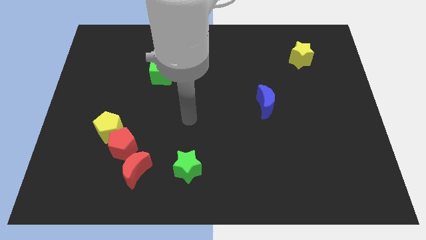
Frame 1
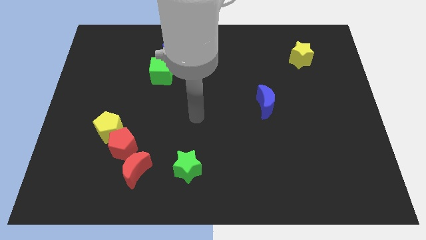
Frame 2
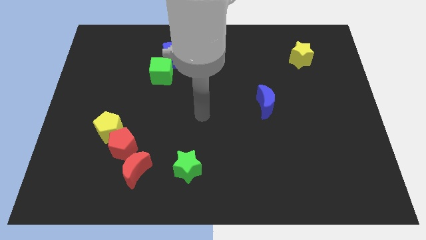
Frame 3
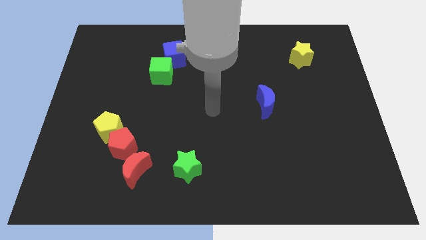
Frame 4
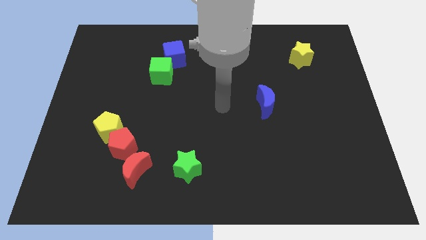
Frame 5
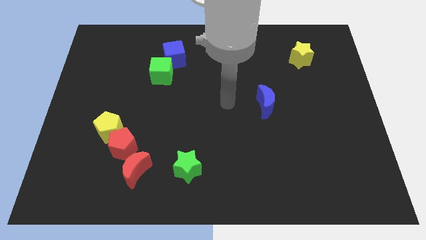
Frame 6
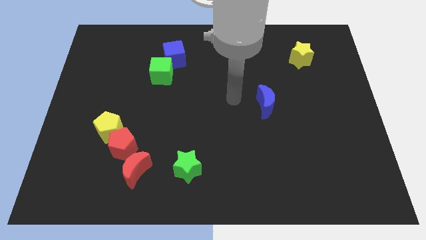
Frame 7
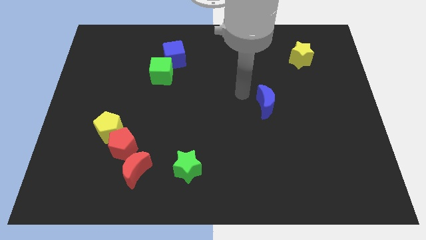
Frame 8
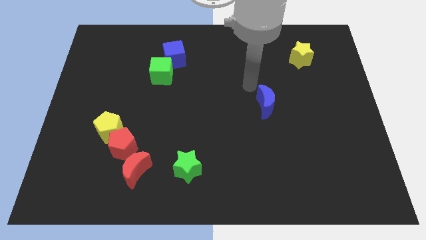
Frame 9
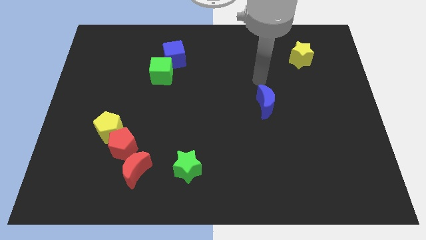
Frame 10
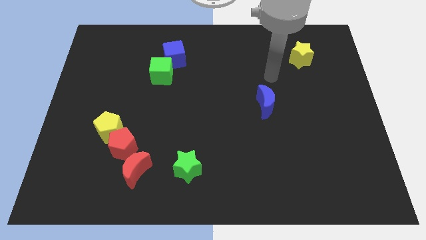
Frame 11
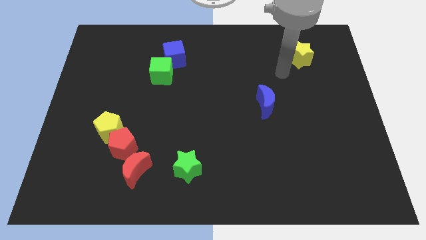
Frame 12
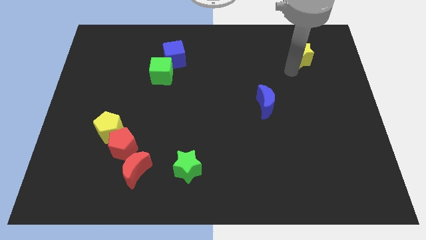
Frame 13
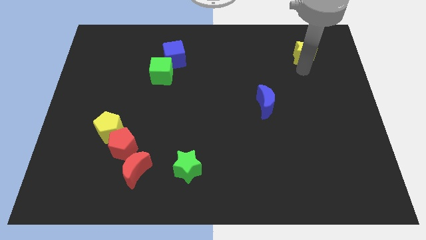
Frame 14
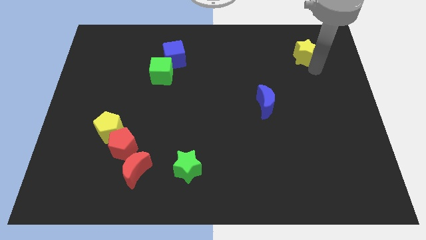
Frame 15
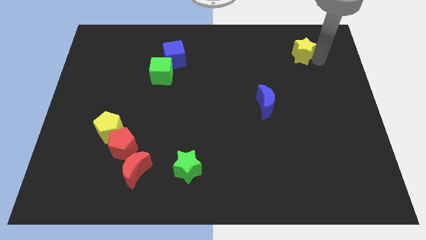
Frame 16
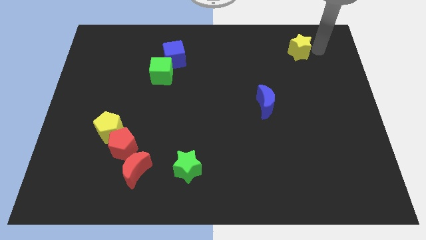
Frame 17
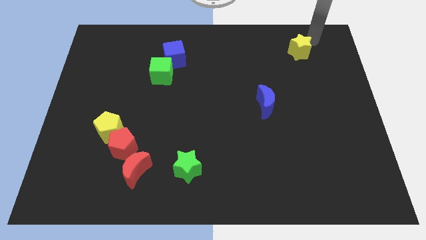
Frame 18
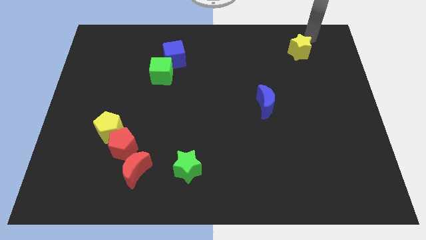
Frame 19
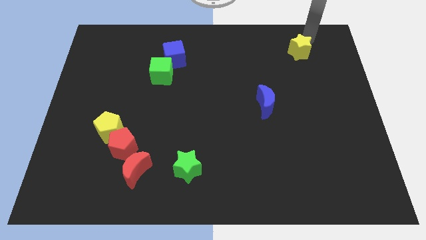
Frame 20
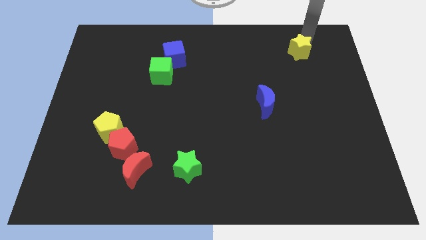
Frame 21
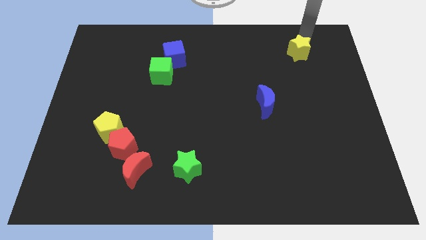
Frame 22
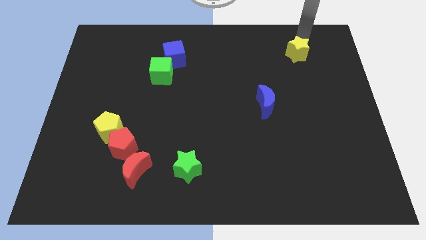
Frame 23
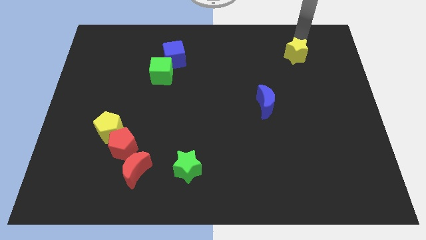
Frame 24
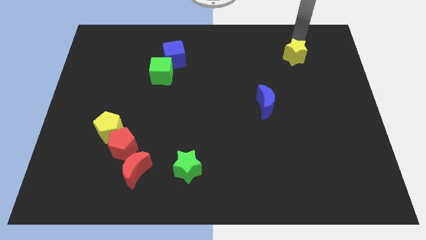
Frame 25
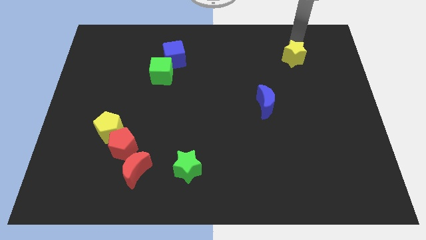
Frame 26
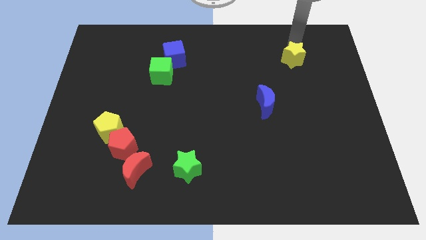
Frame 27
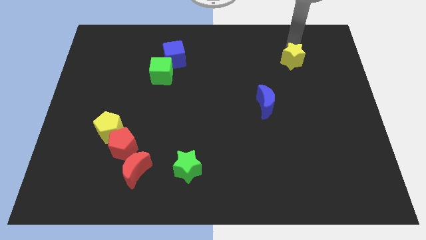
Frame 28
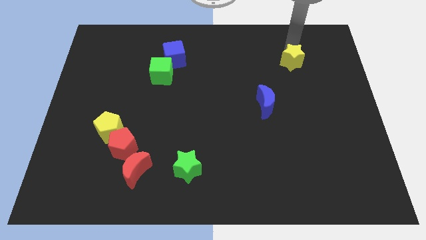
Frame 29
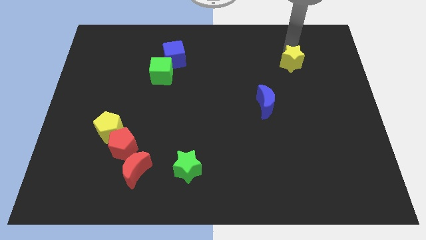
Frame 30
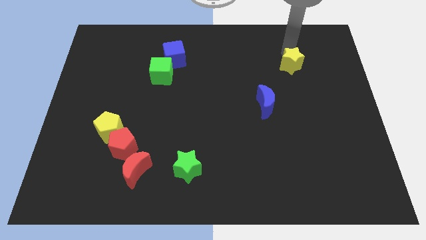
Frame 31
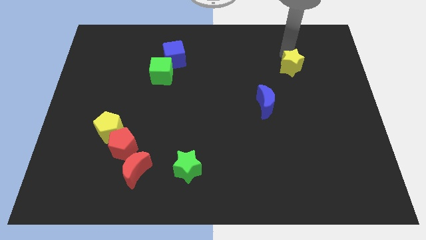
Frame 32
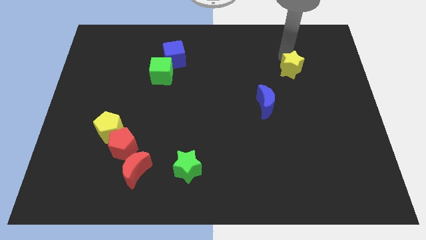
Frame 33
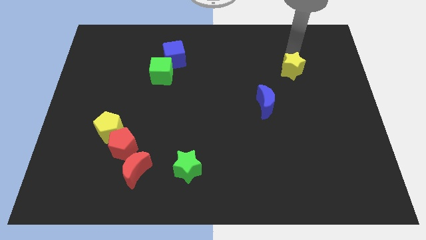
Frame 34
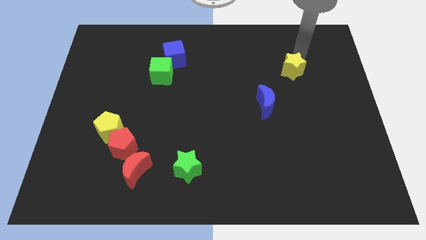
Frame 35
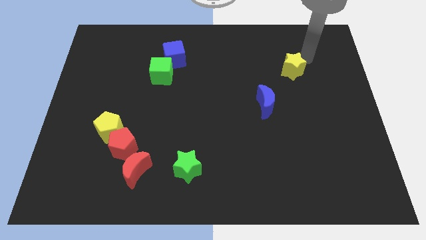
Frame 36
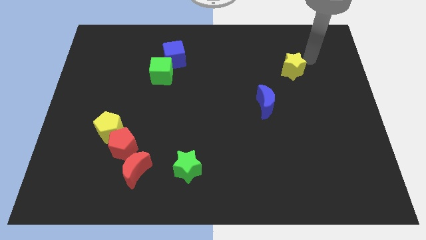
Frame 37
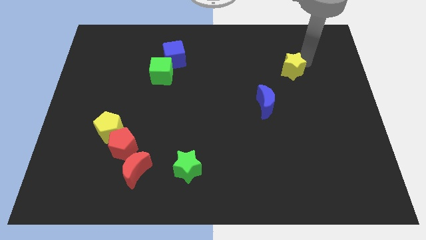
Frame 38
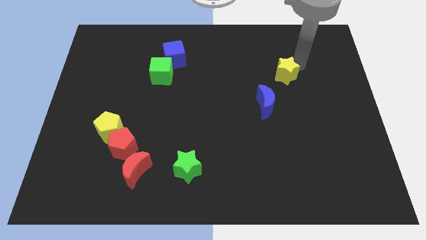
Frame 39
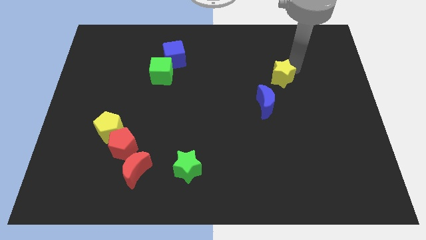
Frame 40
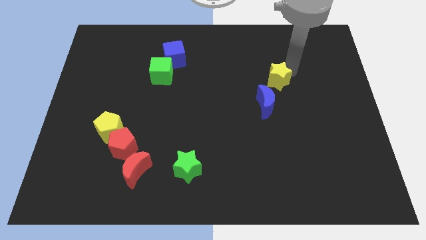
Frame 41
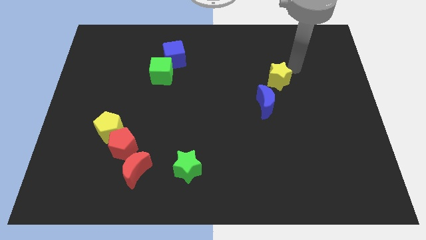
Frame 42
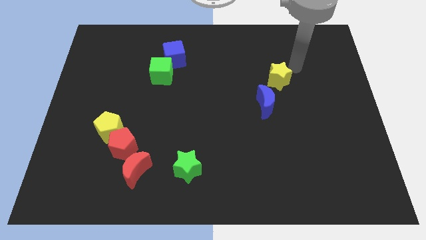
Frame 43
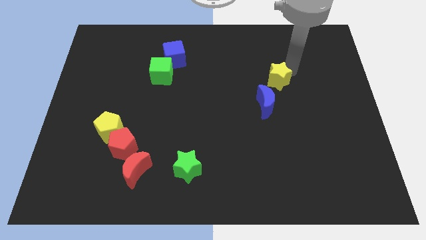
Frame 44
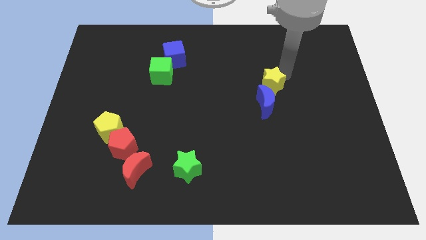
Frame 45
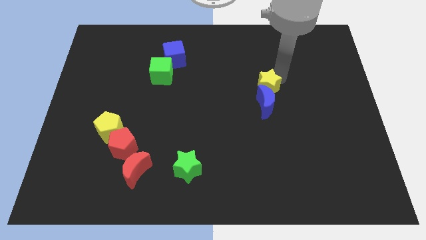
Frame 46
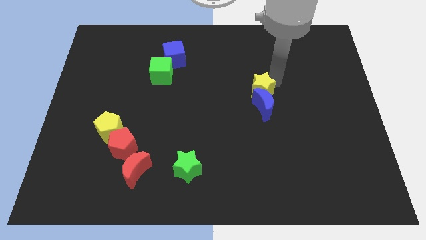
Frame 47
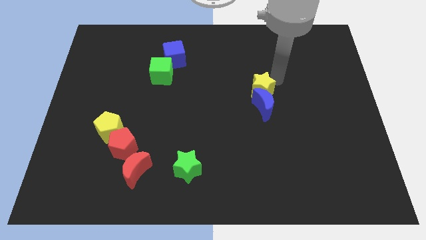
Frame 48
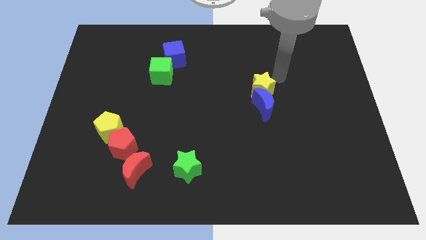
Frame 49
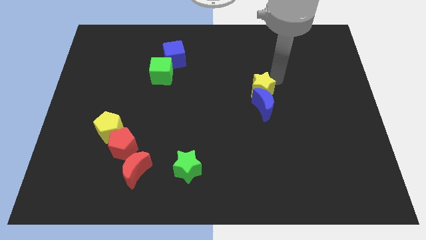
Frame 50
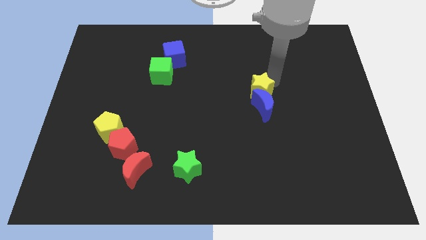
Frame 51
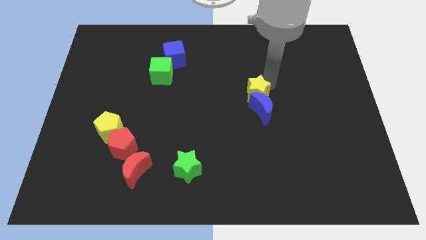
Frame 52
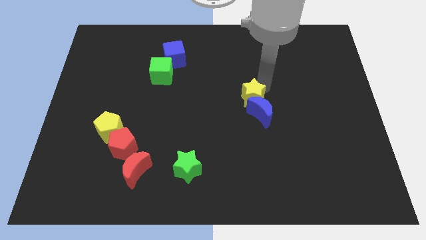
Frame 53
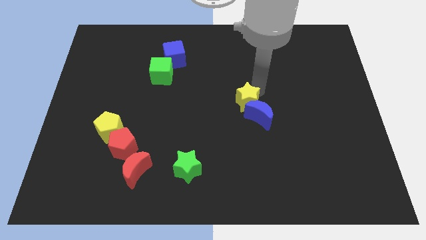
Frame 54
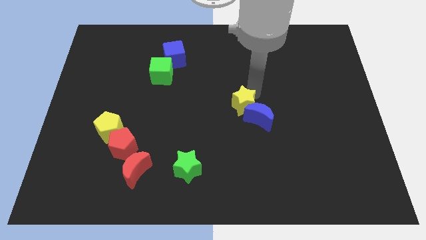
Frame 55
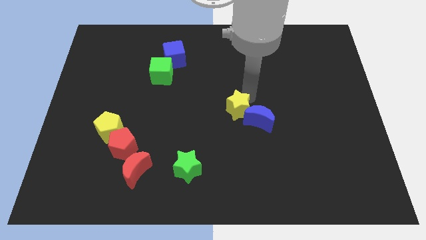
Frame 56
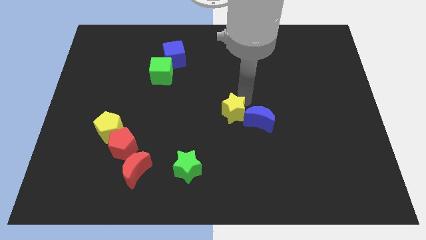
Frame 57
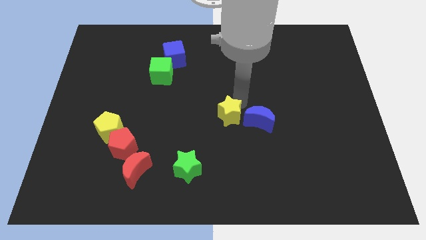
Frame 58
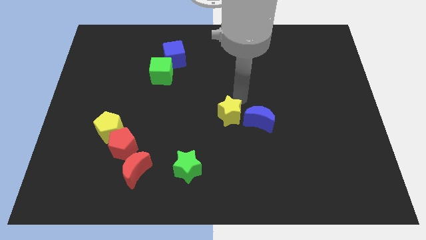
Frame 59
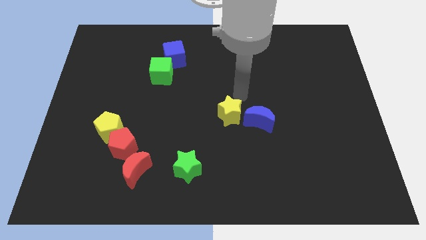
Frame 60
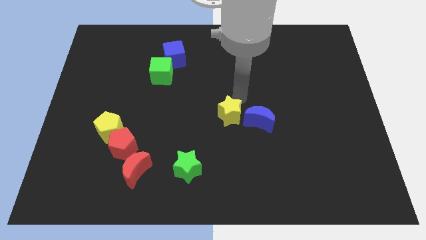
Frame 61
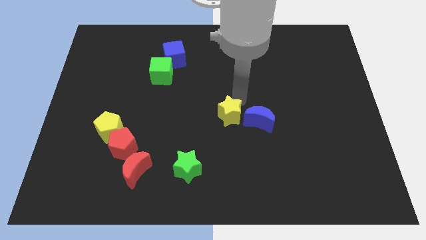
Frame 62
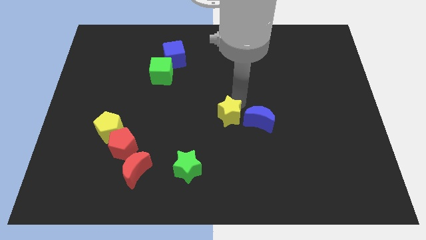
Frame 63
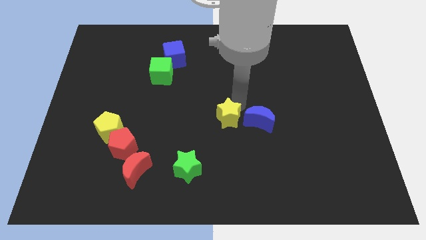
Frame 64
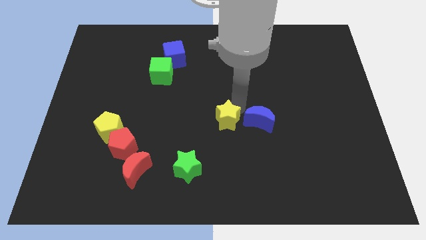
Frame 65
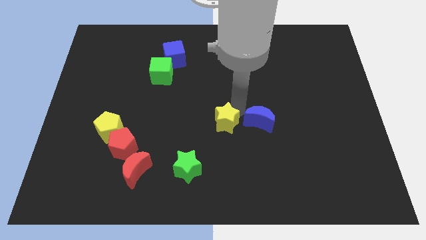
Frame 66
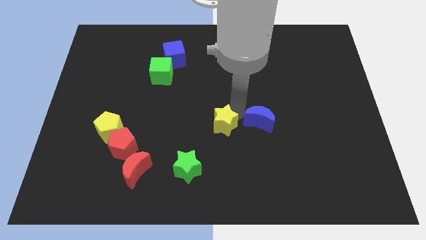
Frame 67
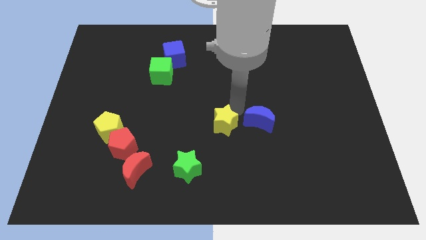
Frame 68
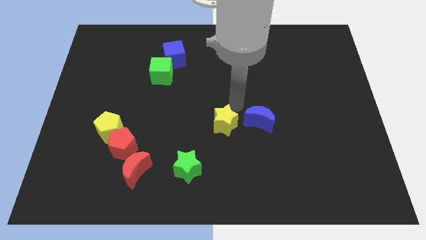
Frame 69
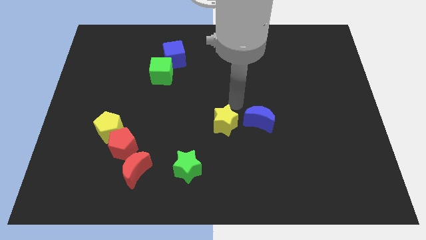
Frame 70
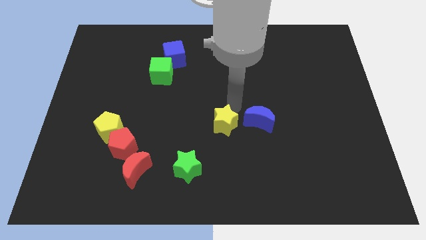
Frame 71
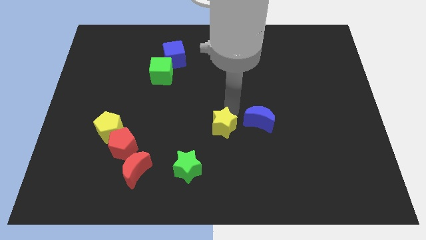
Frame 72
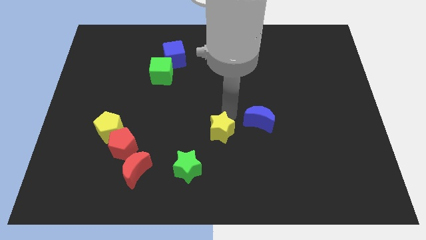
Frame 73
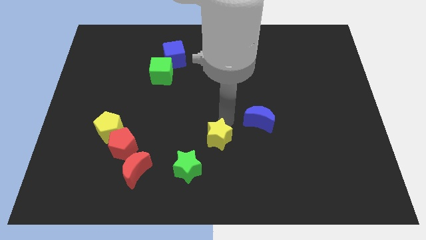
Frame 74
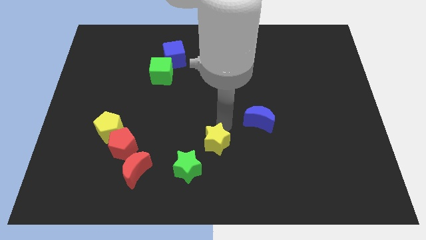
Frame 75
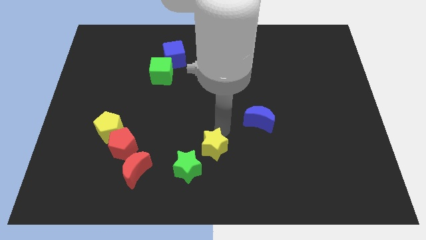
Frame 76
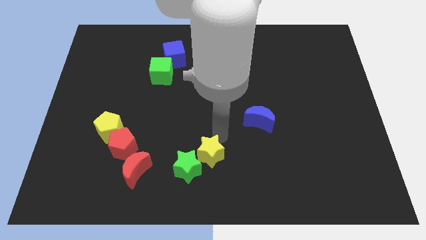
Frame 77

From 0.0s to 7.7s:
move the yellow star next to the green star
